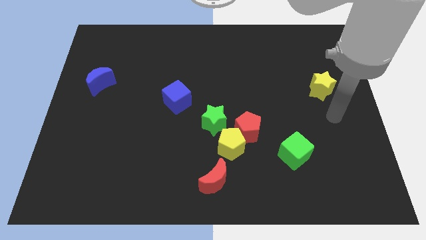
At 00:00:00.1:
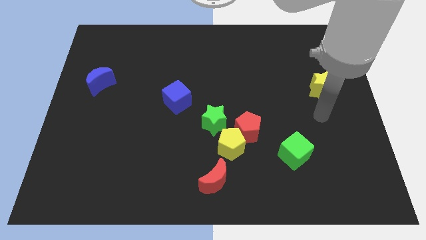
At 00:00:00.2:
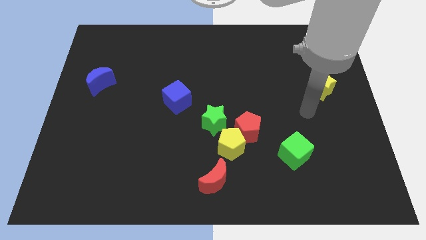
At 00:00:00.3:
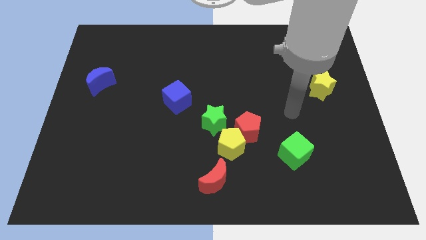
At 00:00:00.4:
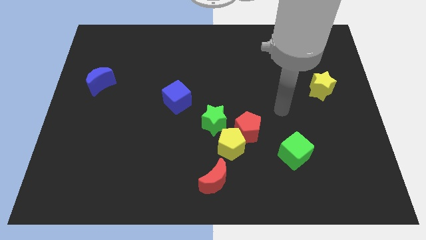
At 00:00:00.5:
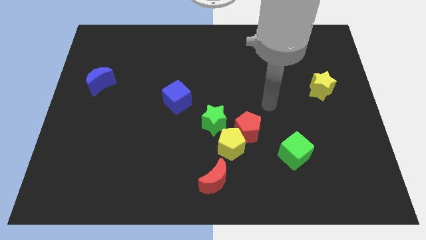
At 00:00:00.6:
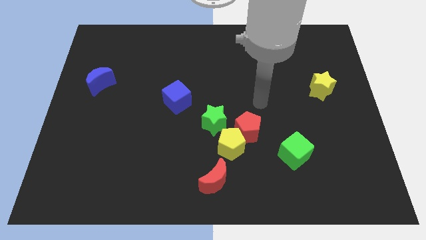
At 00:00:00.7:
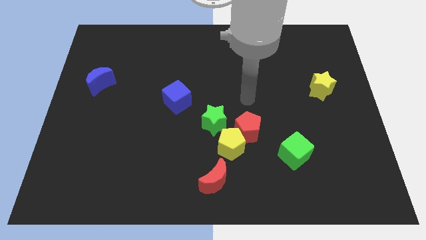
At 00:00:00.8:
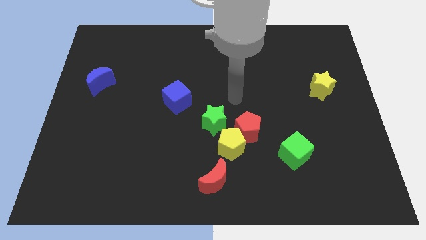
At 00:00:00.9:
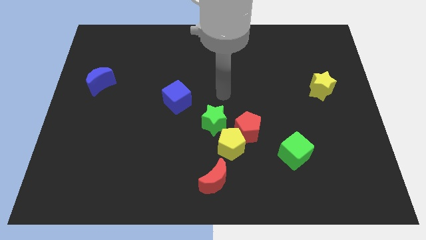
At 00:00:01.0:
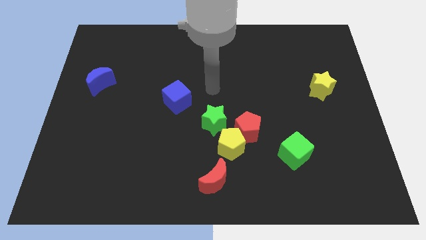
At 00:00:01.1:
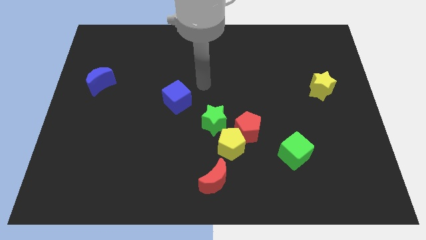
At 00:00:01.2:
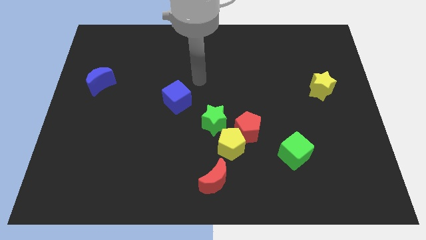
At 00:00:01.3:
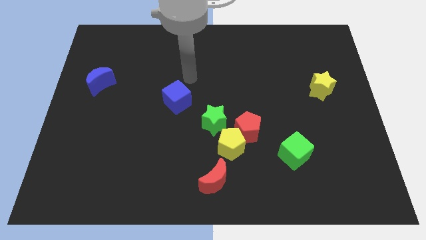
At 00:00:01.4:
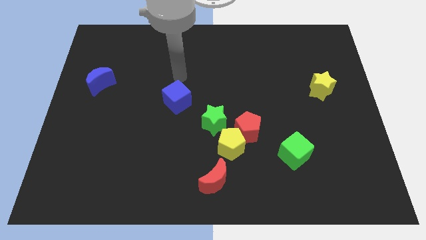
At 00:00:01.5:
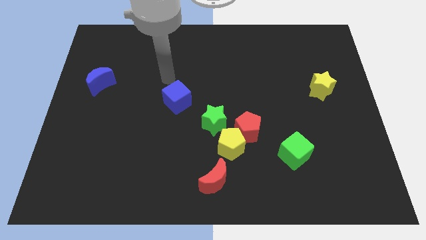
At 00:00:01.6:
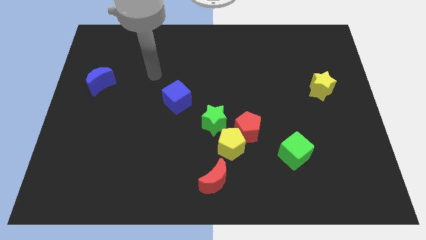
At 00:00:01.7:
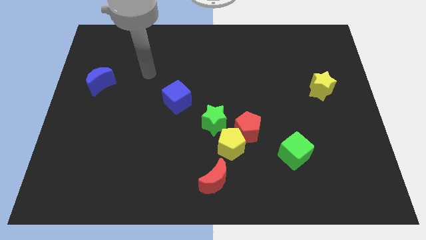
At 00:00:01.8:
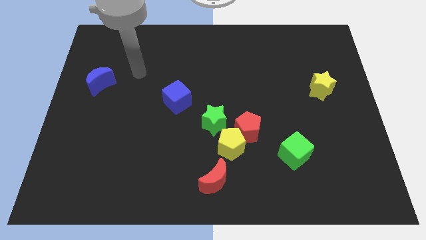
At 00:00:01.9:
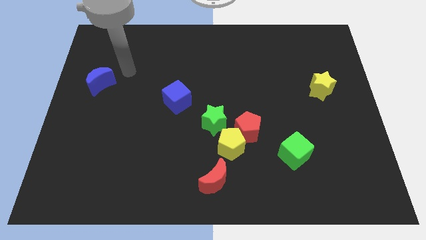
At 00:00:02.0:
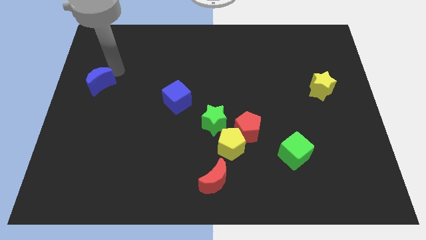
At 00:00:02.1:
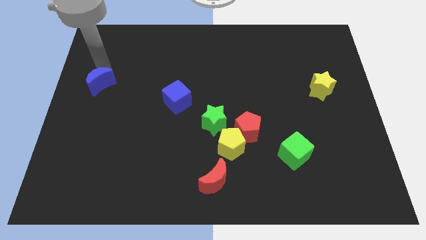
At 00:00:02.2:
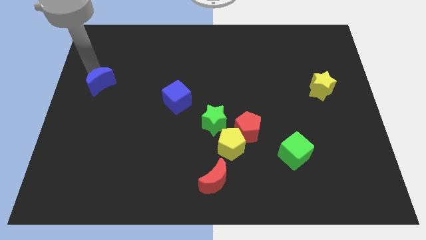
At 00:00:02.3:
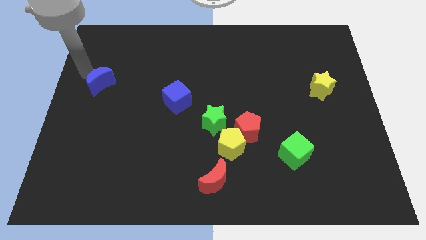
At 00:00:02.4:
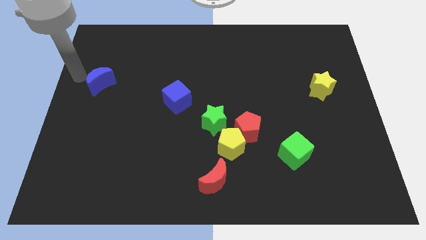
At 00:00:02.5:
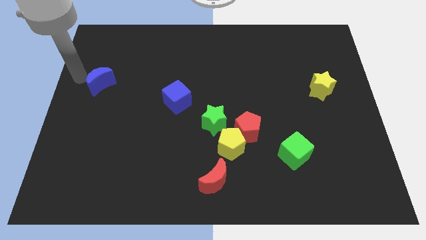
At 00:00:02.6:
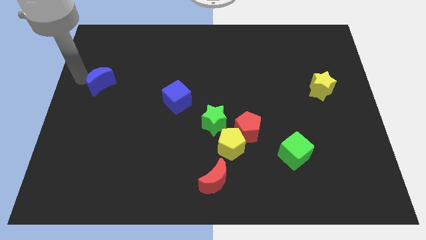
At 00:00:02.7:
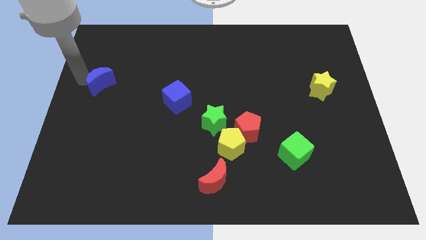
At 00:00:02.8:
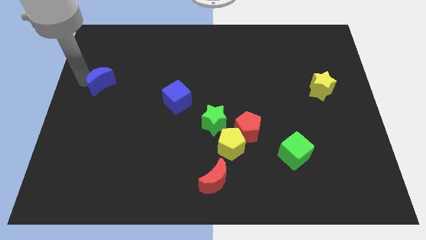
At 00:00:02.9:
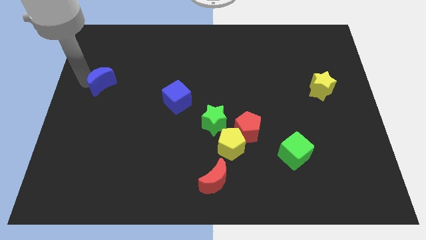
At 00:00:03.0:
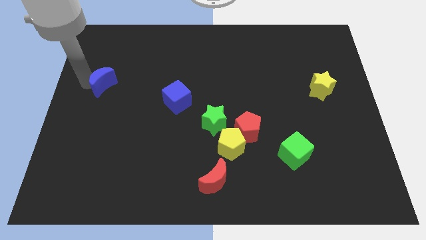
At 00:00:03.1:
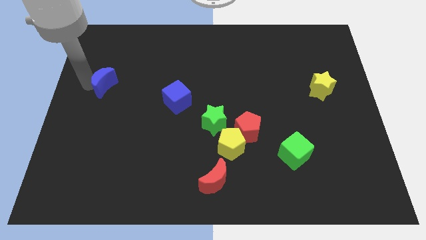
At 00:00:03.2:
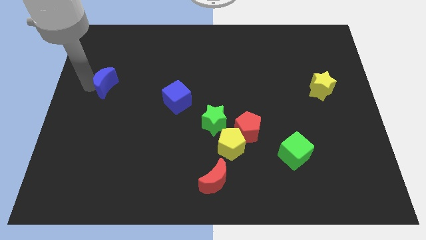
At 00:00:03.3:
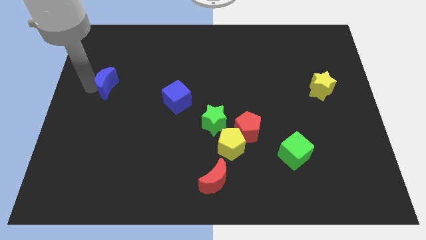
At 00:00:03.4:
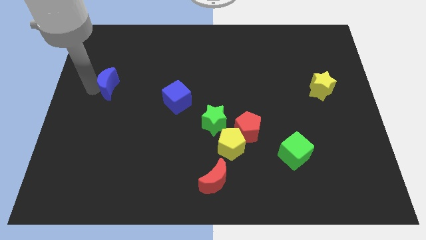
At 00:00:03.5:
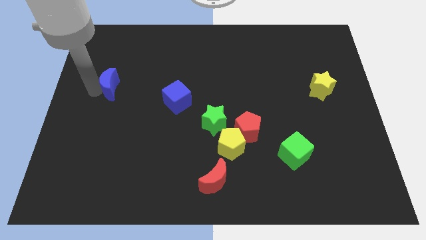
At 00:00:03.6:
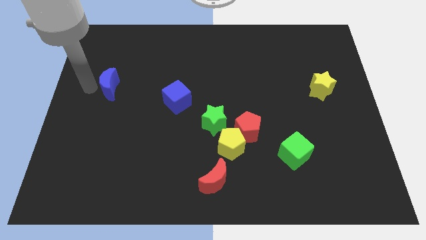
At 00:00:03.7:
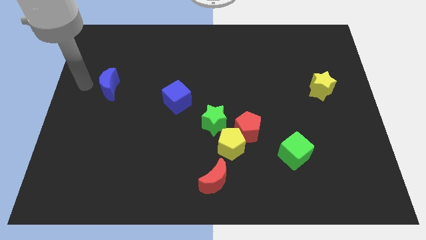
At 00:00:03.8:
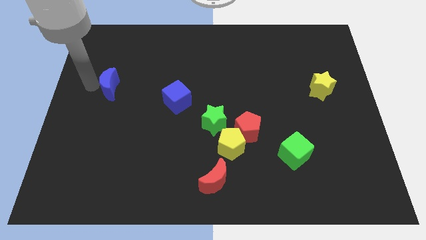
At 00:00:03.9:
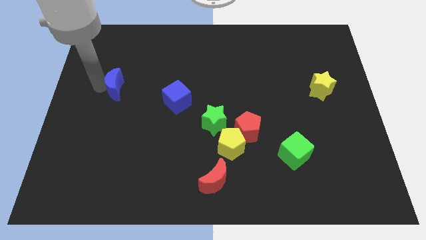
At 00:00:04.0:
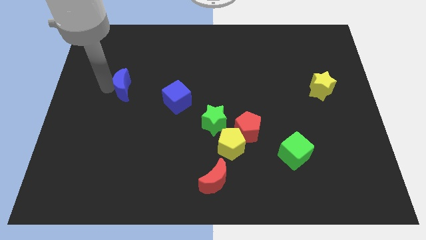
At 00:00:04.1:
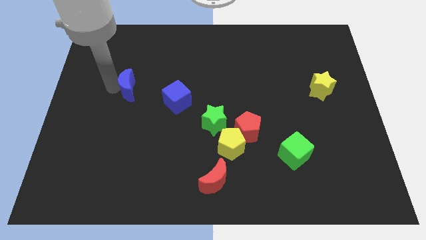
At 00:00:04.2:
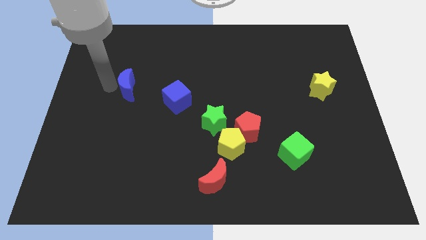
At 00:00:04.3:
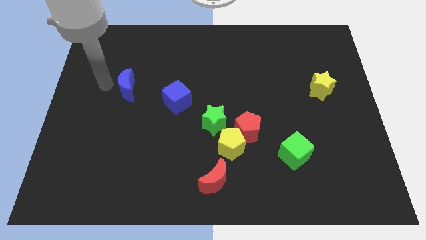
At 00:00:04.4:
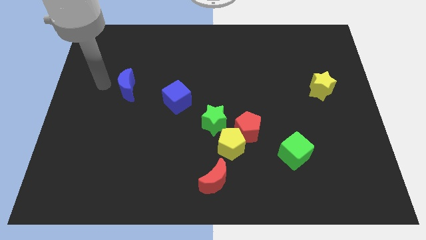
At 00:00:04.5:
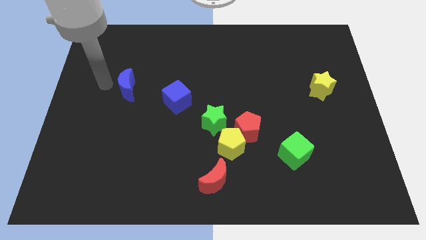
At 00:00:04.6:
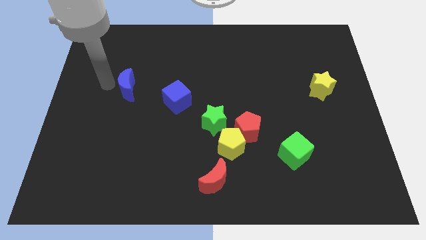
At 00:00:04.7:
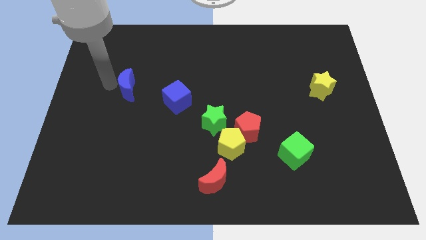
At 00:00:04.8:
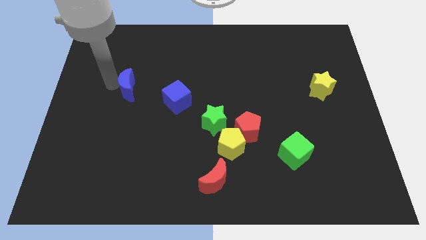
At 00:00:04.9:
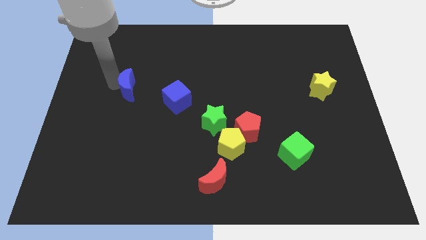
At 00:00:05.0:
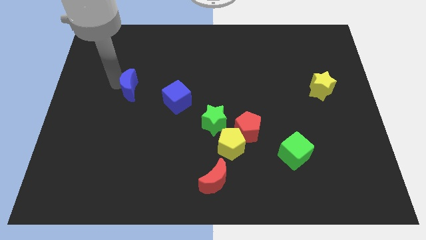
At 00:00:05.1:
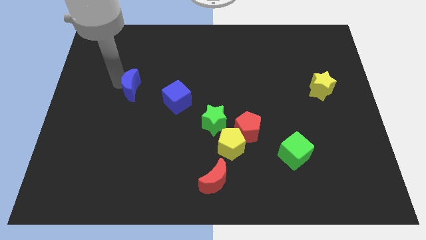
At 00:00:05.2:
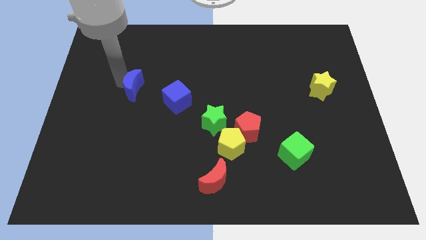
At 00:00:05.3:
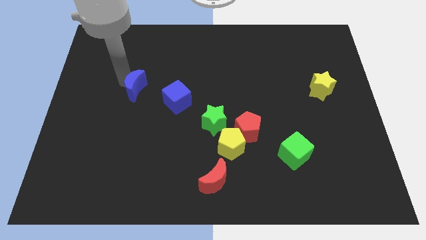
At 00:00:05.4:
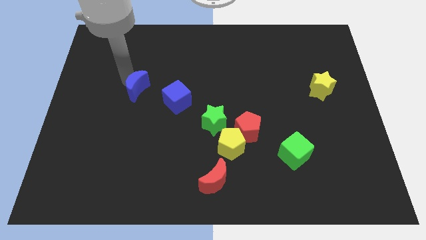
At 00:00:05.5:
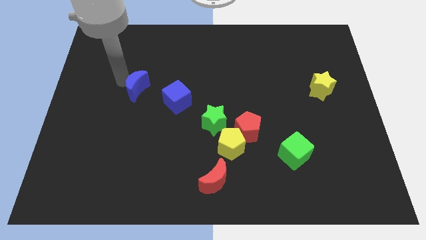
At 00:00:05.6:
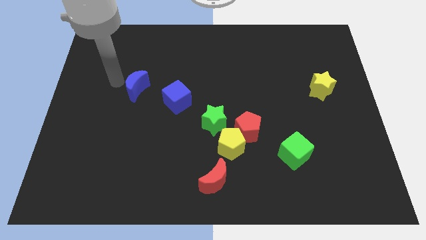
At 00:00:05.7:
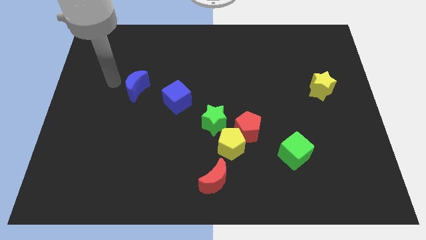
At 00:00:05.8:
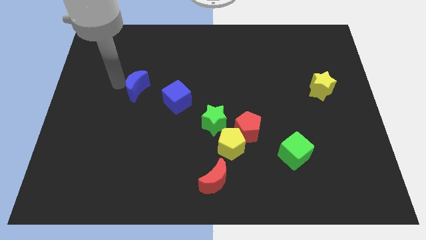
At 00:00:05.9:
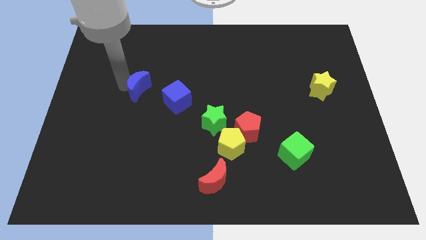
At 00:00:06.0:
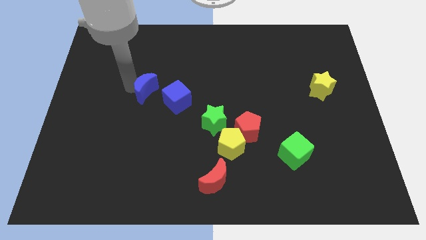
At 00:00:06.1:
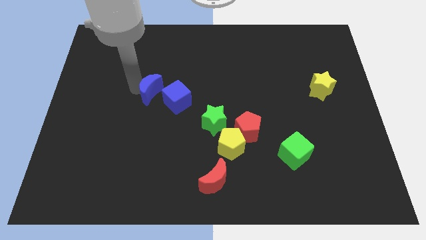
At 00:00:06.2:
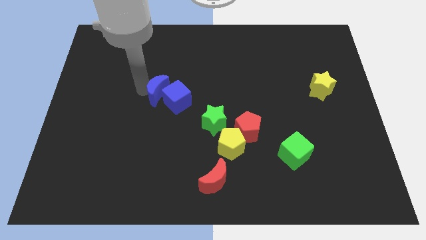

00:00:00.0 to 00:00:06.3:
put the blue moon close to the blue cube
